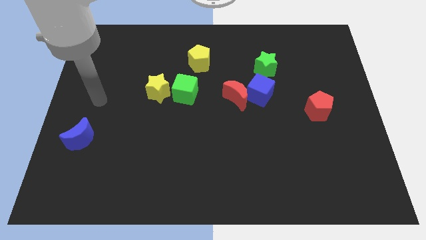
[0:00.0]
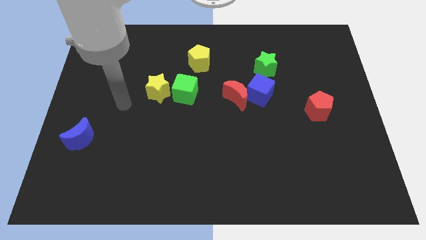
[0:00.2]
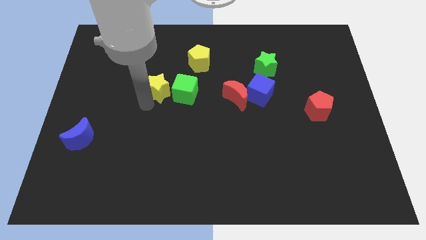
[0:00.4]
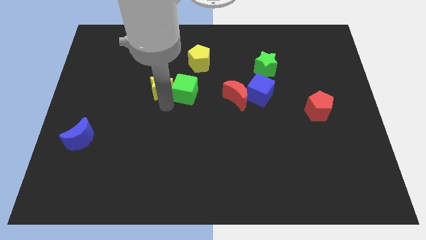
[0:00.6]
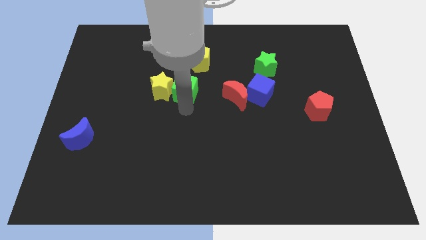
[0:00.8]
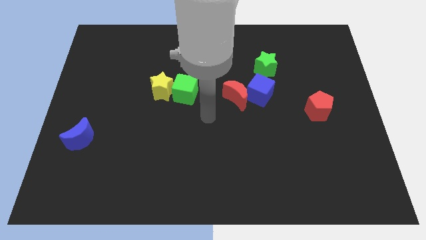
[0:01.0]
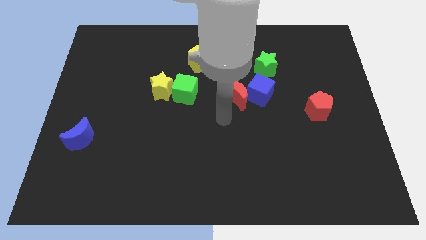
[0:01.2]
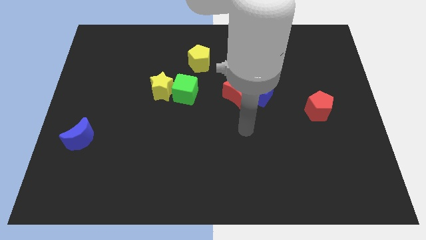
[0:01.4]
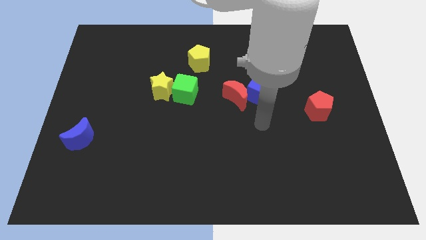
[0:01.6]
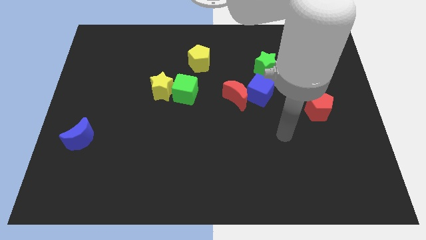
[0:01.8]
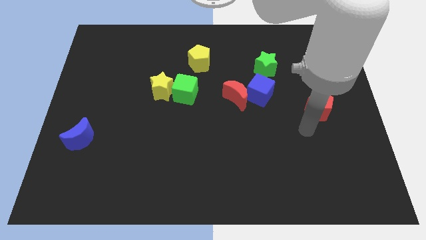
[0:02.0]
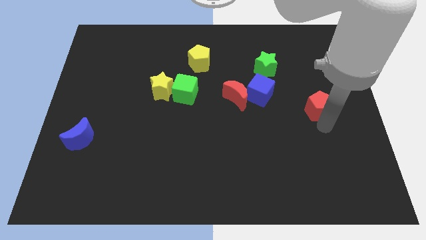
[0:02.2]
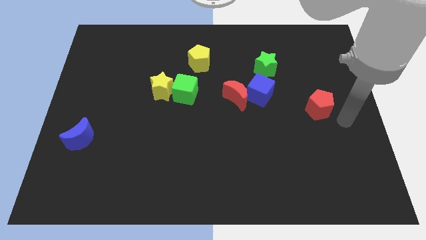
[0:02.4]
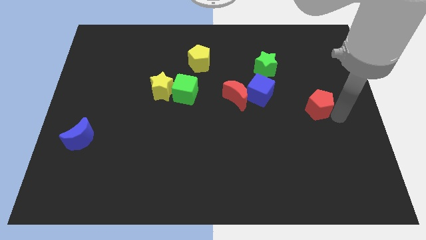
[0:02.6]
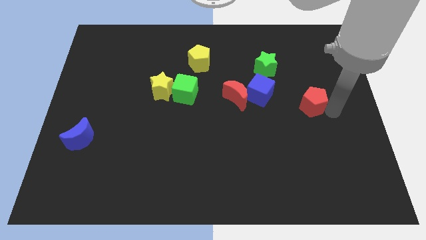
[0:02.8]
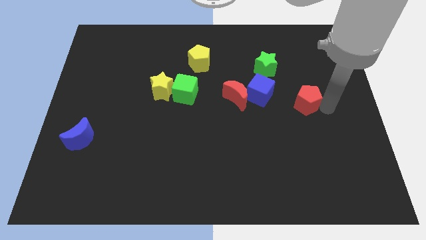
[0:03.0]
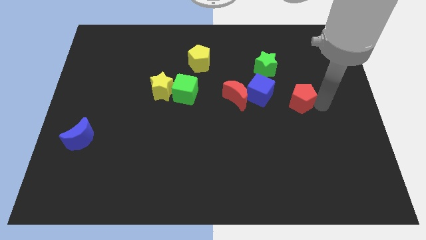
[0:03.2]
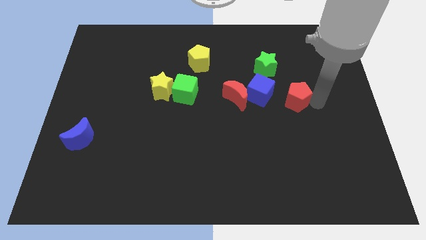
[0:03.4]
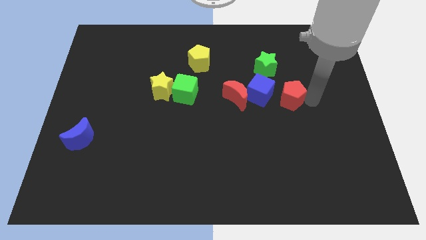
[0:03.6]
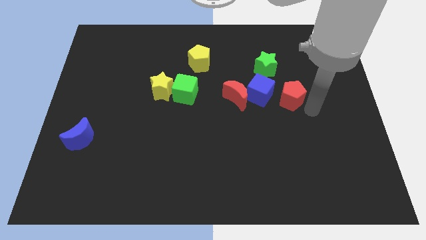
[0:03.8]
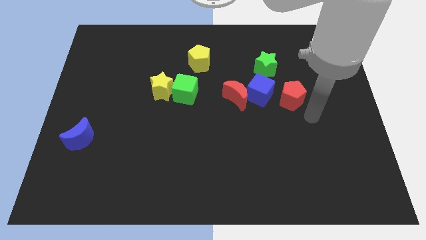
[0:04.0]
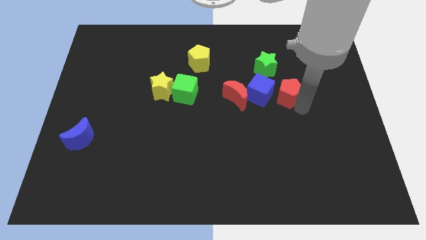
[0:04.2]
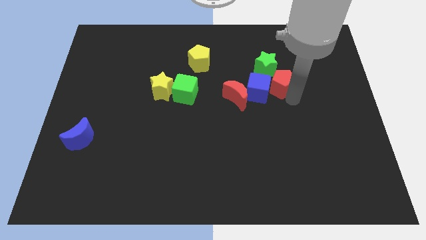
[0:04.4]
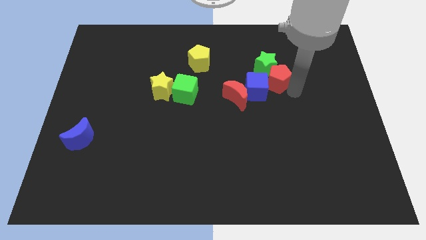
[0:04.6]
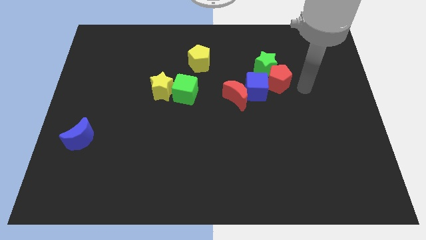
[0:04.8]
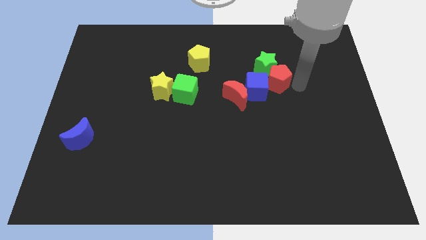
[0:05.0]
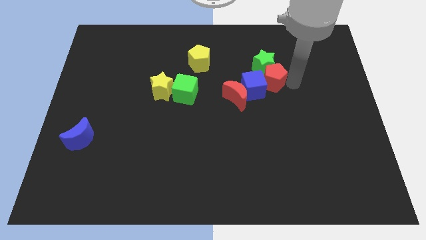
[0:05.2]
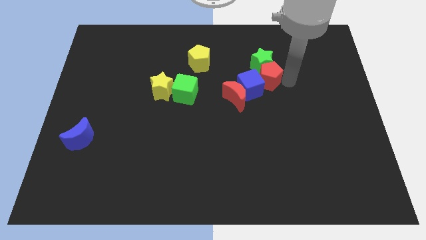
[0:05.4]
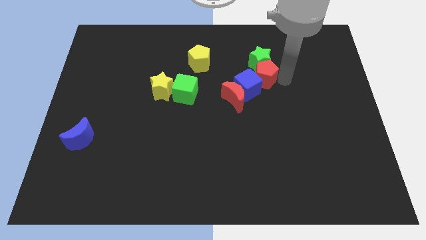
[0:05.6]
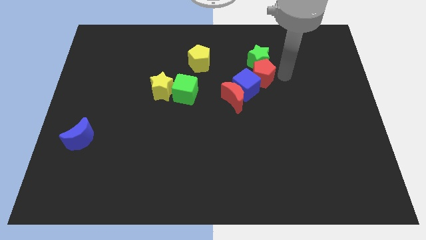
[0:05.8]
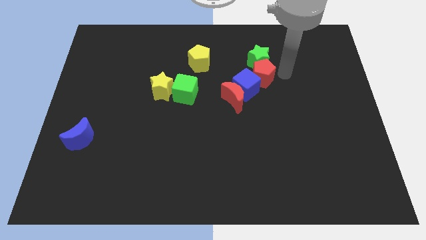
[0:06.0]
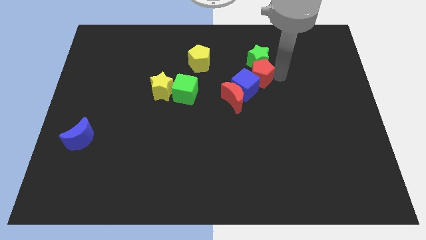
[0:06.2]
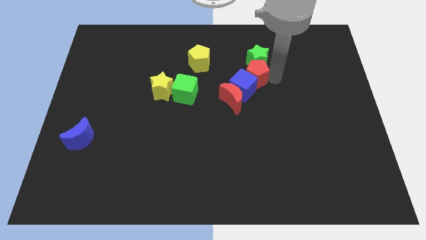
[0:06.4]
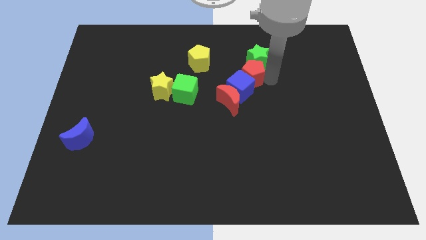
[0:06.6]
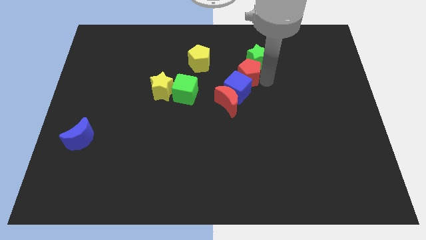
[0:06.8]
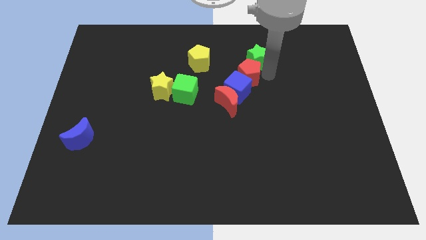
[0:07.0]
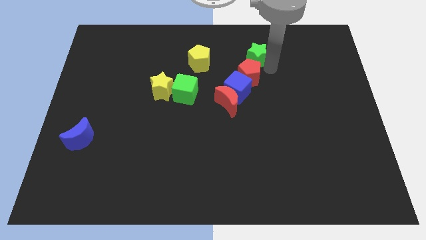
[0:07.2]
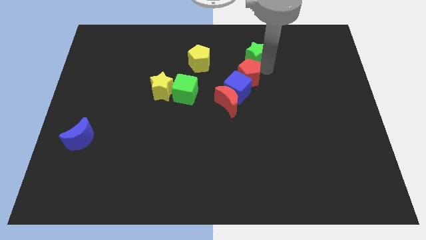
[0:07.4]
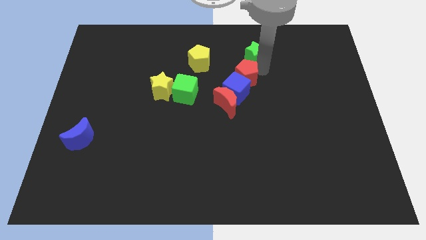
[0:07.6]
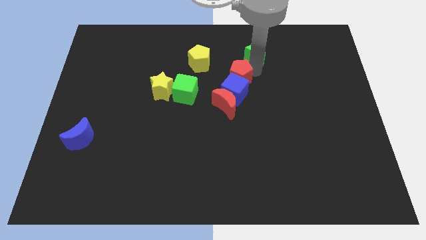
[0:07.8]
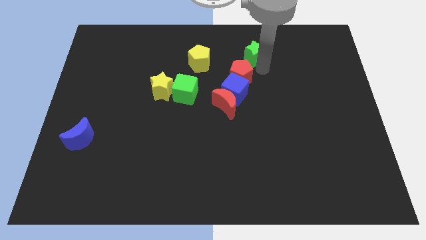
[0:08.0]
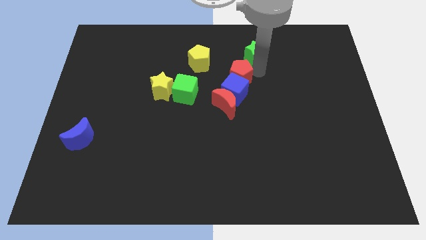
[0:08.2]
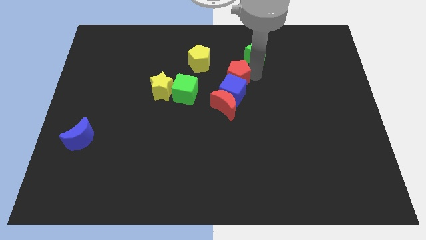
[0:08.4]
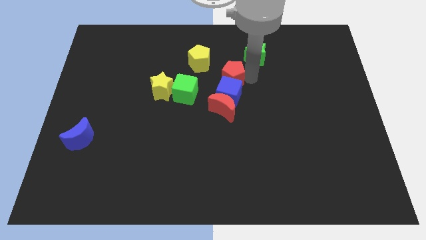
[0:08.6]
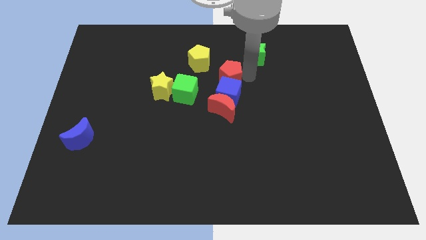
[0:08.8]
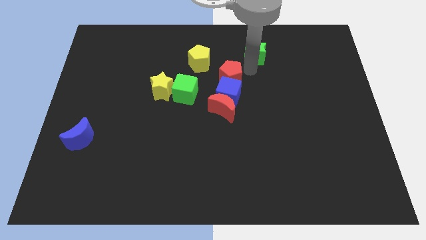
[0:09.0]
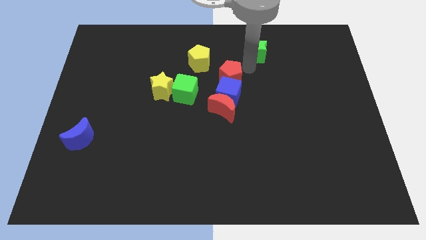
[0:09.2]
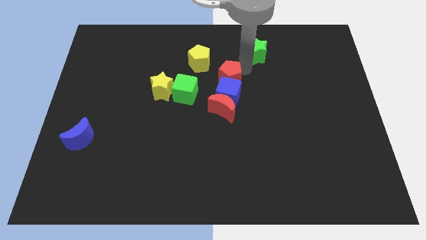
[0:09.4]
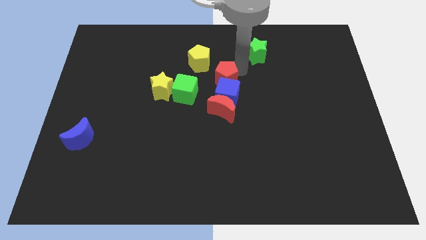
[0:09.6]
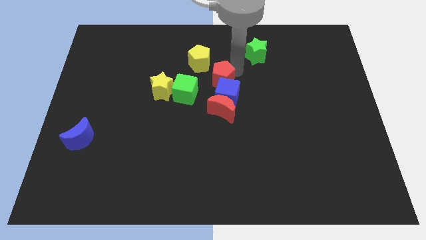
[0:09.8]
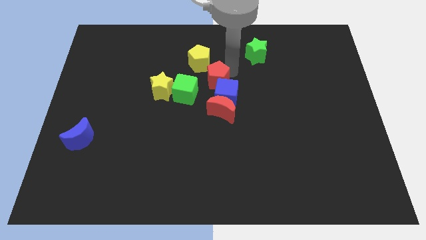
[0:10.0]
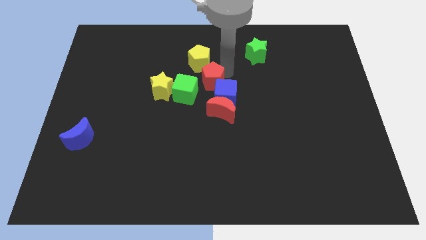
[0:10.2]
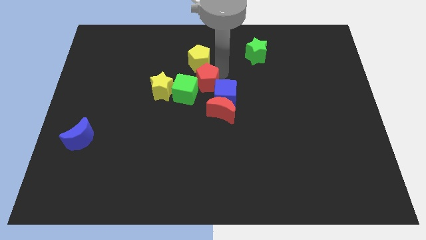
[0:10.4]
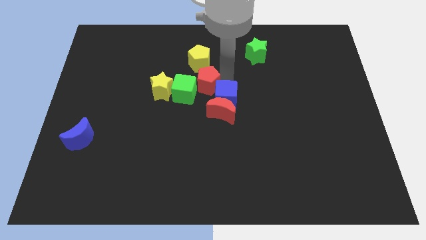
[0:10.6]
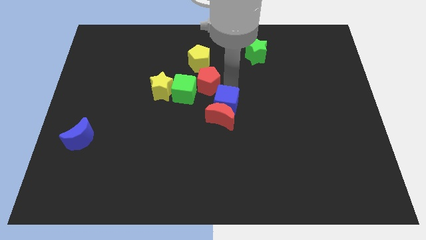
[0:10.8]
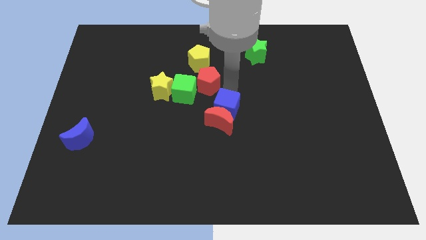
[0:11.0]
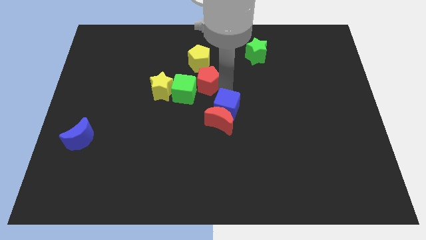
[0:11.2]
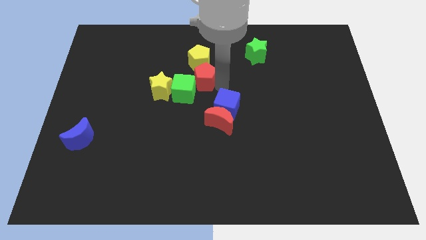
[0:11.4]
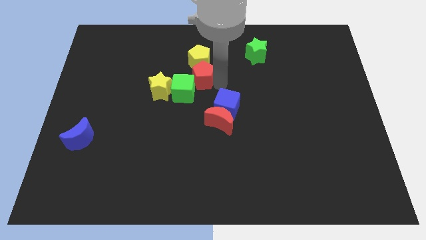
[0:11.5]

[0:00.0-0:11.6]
put the red pentagon to the top right of the yellow star
